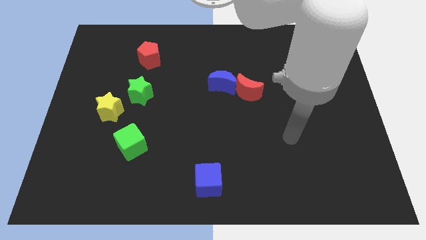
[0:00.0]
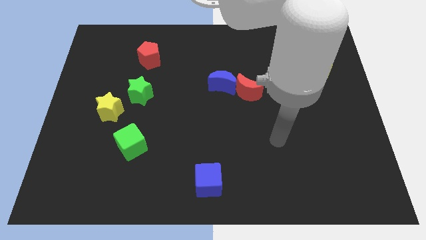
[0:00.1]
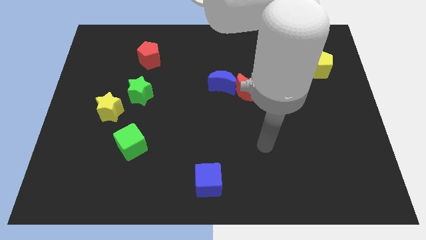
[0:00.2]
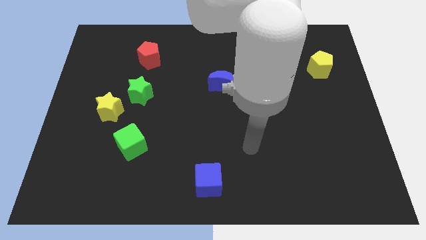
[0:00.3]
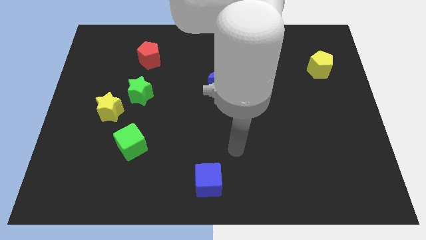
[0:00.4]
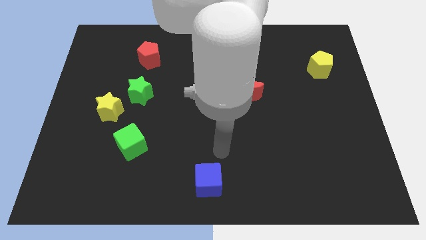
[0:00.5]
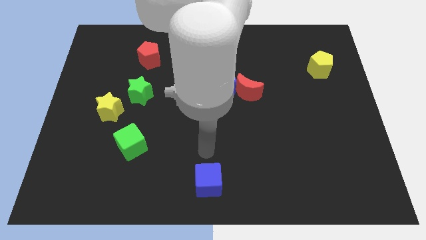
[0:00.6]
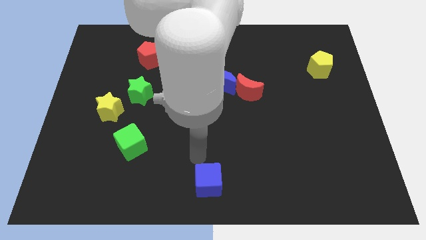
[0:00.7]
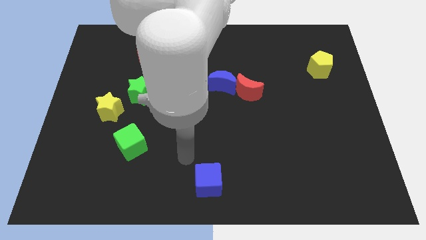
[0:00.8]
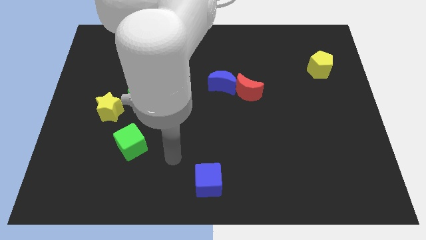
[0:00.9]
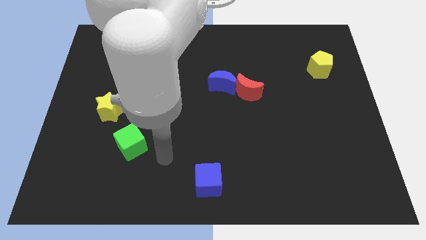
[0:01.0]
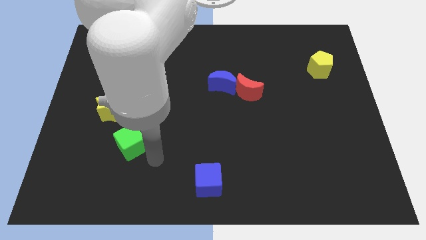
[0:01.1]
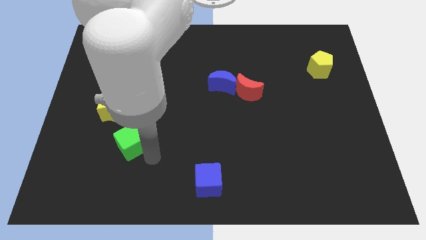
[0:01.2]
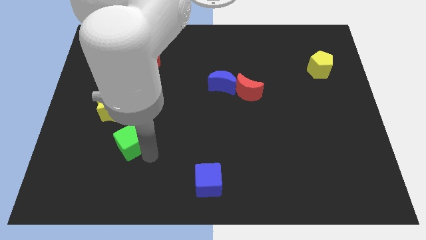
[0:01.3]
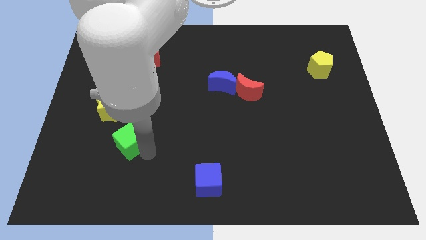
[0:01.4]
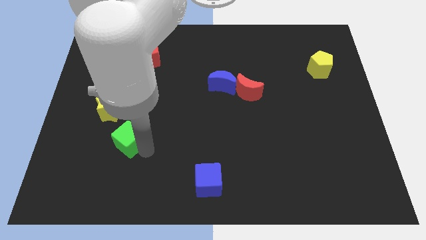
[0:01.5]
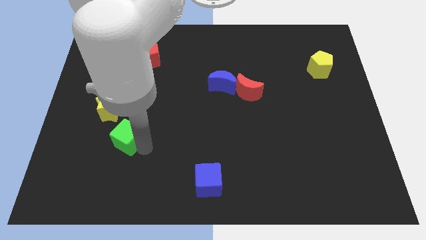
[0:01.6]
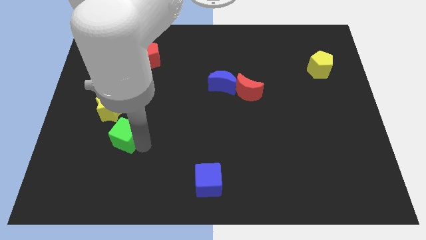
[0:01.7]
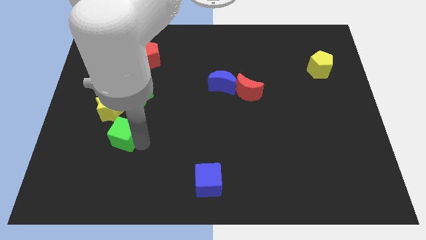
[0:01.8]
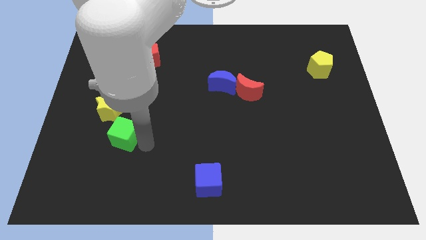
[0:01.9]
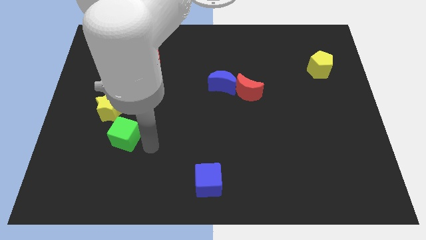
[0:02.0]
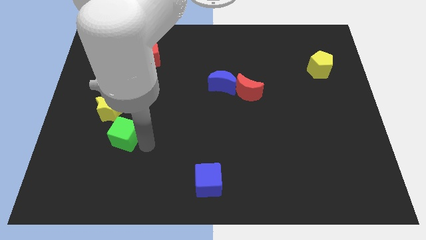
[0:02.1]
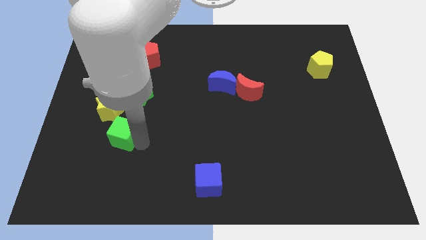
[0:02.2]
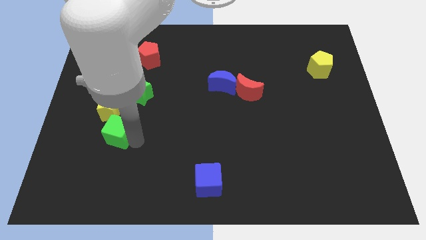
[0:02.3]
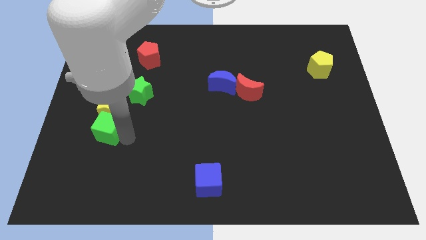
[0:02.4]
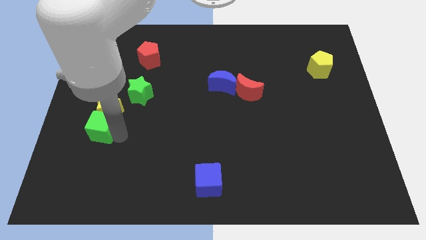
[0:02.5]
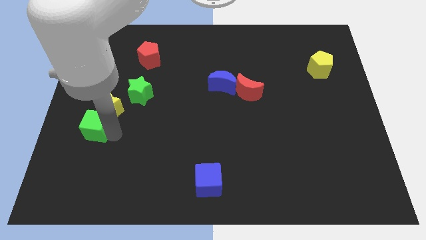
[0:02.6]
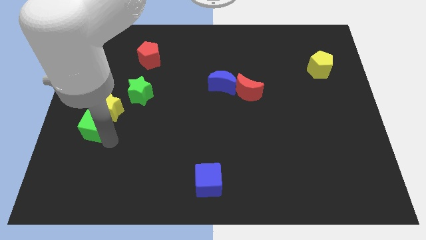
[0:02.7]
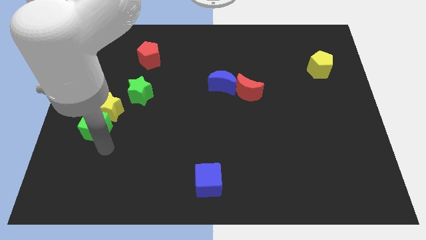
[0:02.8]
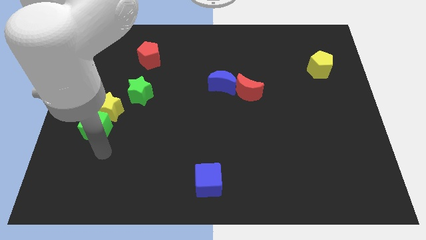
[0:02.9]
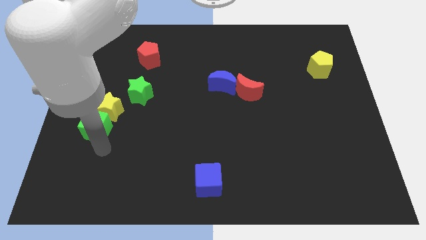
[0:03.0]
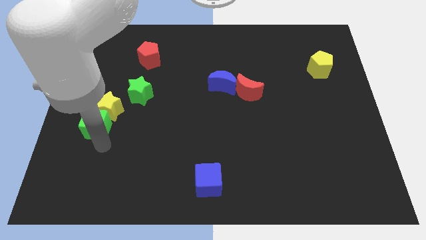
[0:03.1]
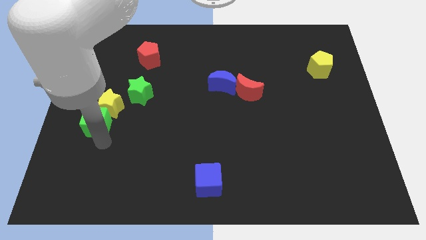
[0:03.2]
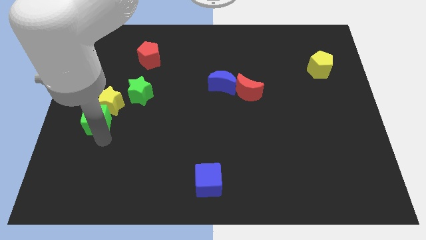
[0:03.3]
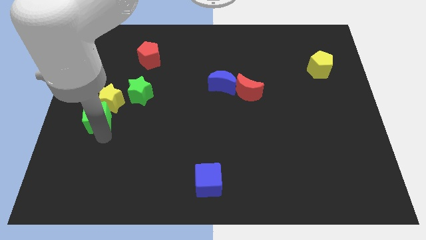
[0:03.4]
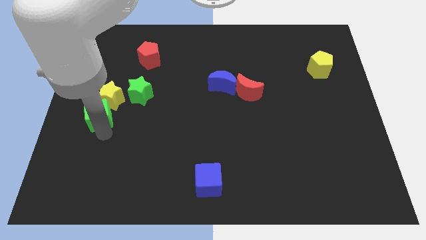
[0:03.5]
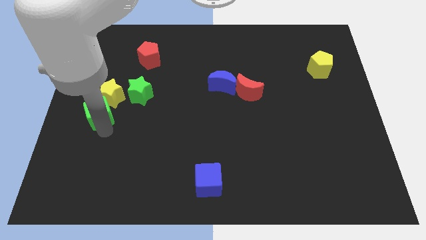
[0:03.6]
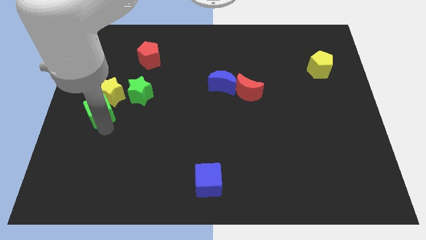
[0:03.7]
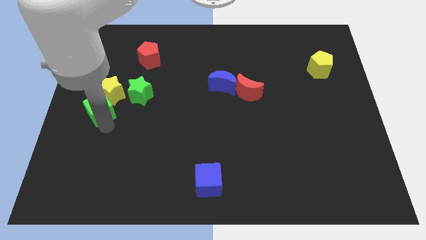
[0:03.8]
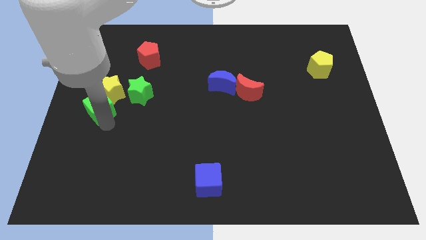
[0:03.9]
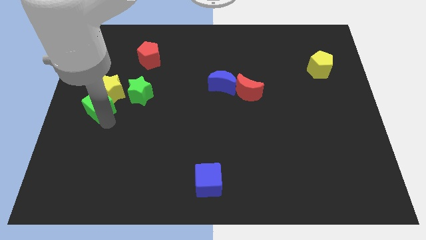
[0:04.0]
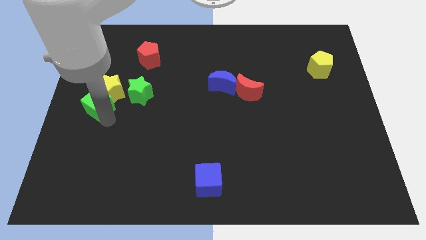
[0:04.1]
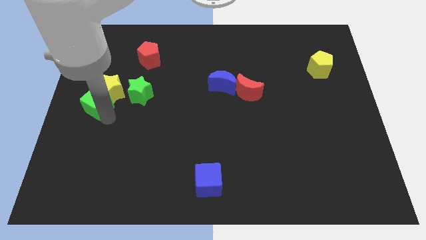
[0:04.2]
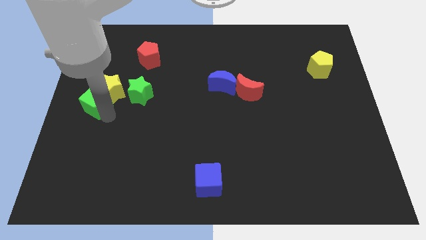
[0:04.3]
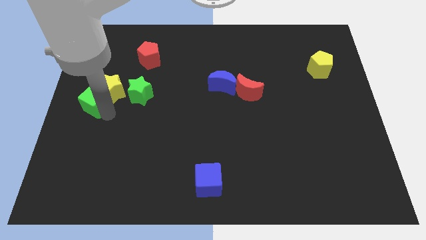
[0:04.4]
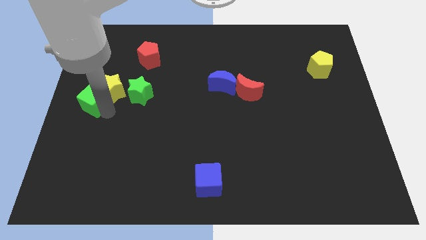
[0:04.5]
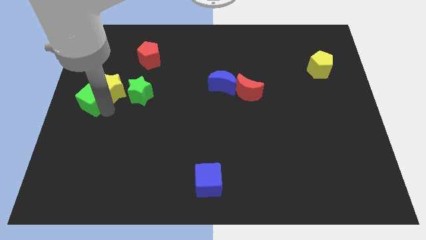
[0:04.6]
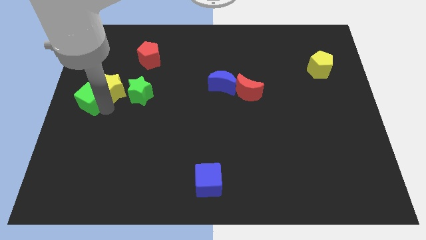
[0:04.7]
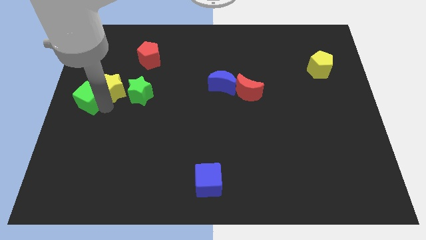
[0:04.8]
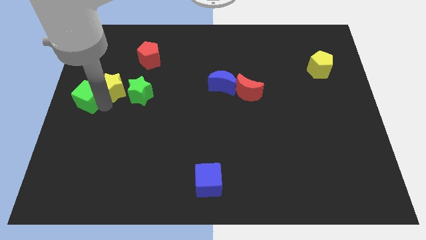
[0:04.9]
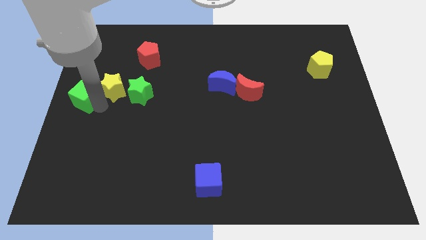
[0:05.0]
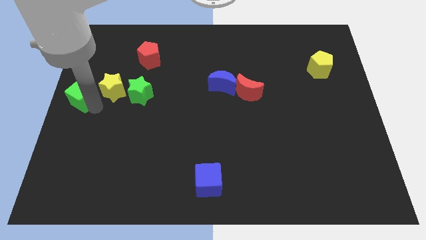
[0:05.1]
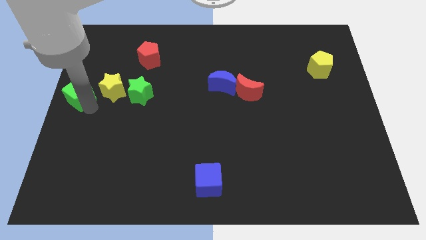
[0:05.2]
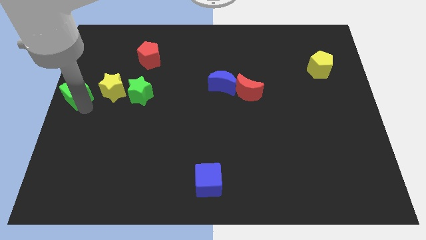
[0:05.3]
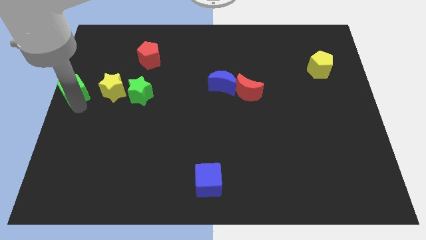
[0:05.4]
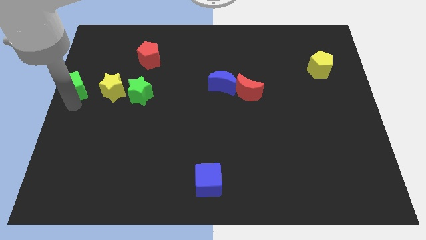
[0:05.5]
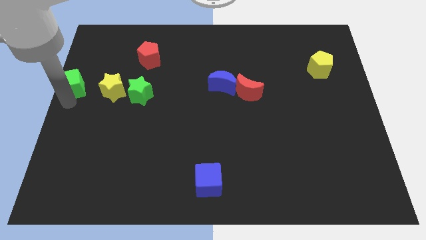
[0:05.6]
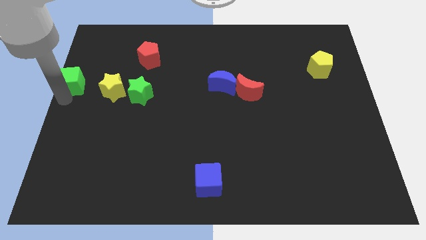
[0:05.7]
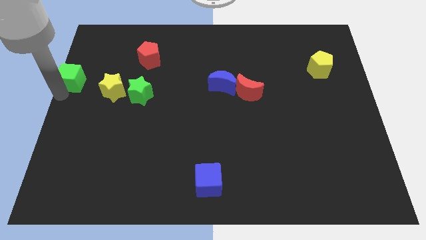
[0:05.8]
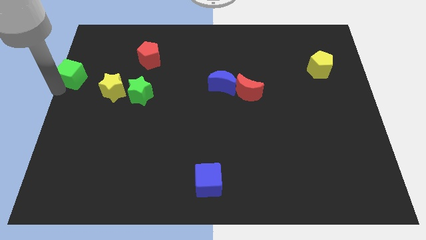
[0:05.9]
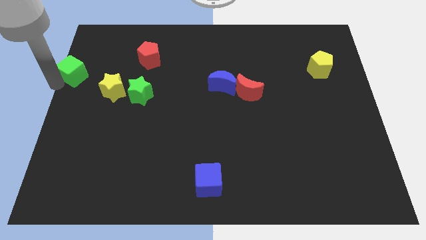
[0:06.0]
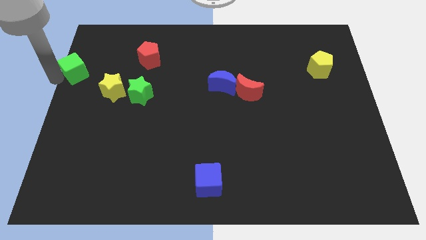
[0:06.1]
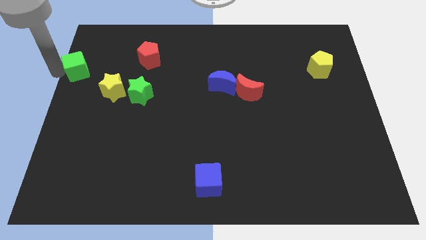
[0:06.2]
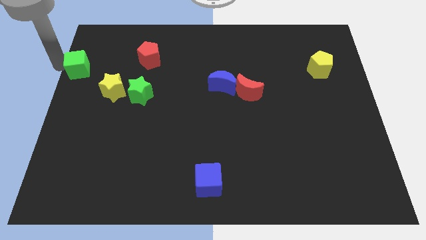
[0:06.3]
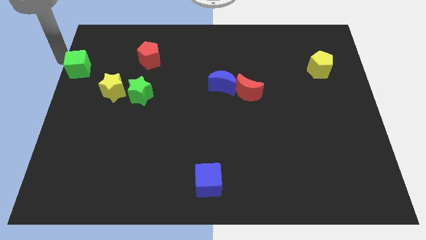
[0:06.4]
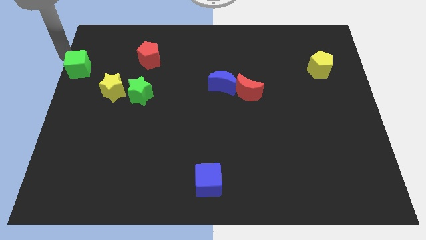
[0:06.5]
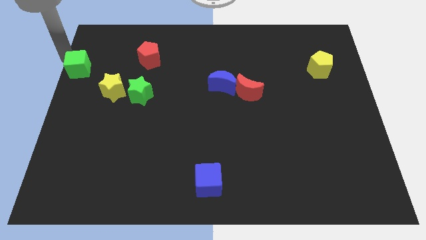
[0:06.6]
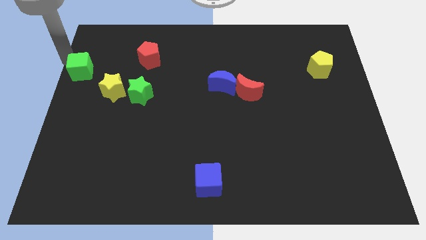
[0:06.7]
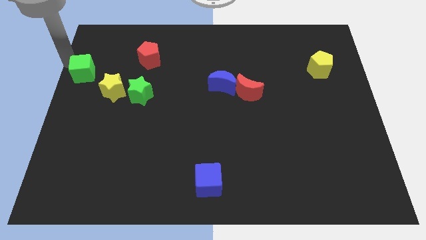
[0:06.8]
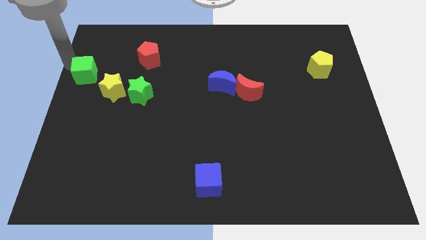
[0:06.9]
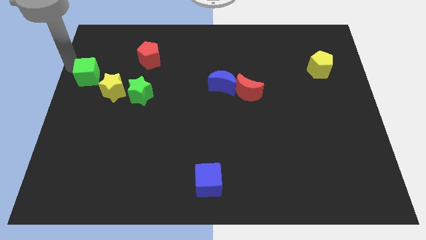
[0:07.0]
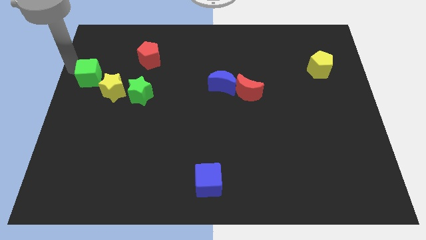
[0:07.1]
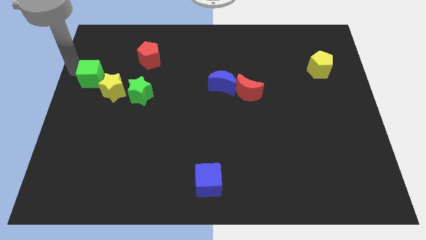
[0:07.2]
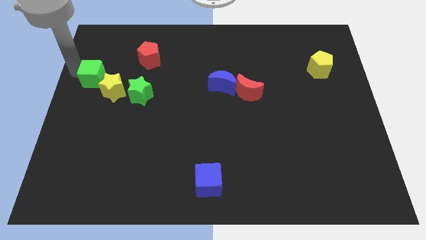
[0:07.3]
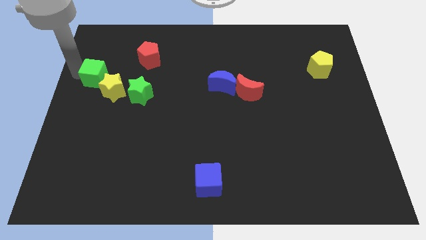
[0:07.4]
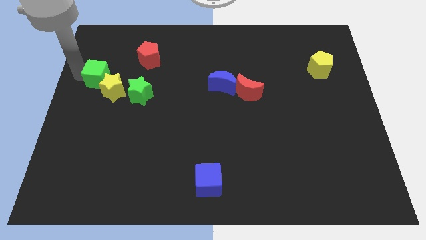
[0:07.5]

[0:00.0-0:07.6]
move the green cube to the top side of the yellow star
